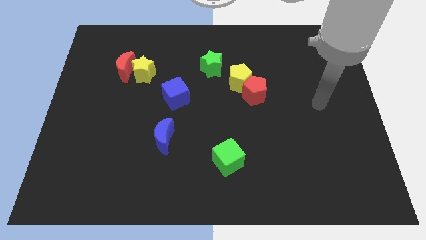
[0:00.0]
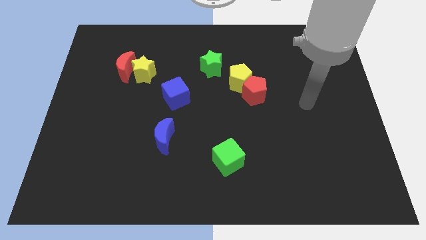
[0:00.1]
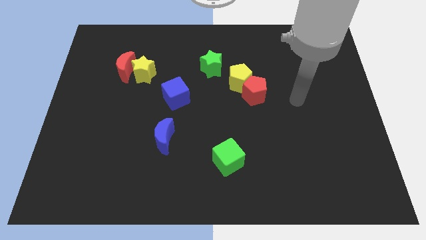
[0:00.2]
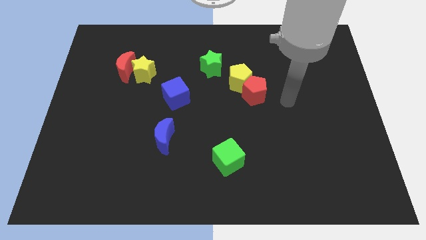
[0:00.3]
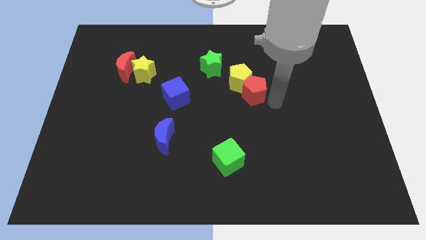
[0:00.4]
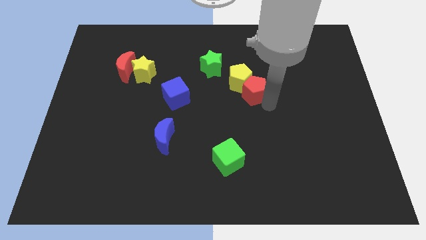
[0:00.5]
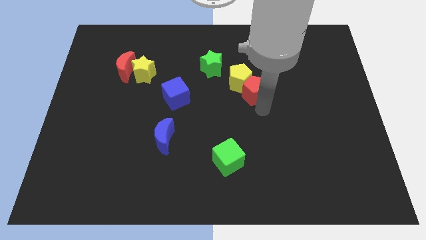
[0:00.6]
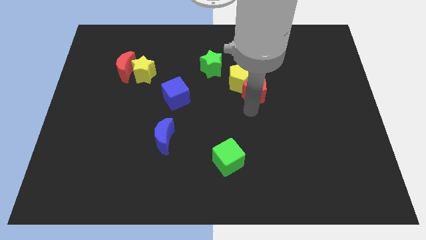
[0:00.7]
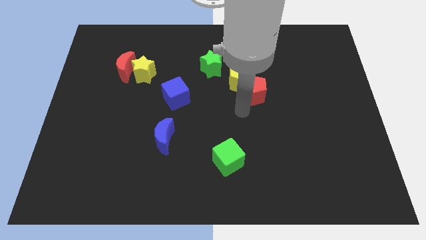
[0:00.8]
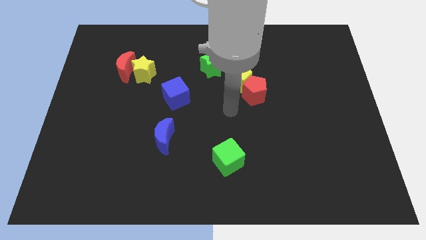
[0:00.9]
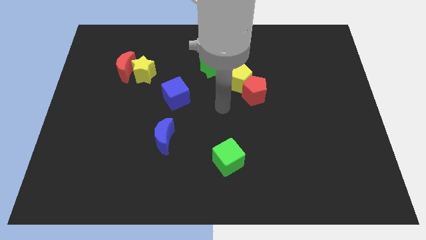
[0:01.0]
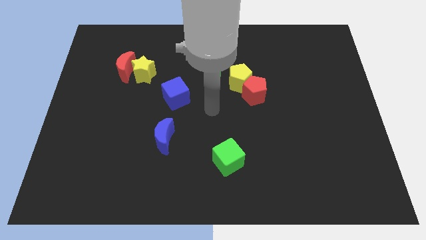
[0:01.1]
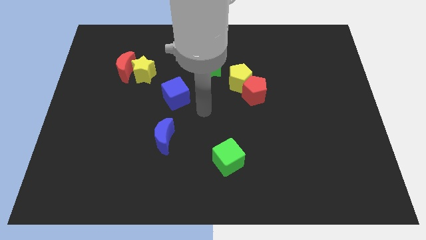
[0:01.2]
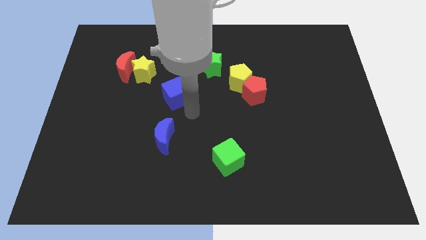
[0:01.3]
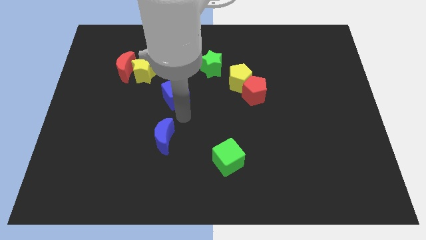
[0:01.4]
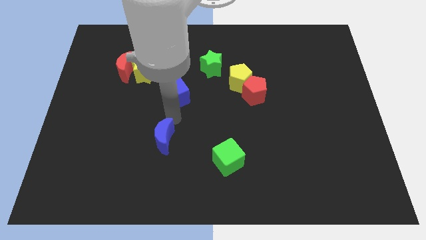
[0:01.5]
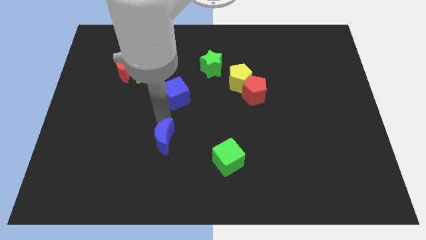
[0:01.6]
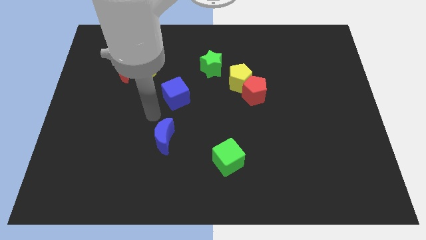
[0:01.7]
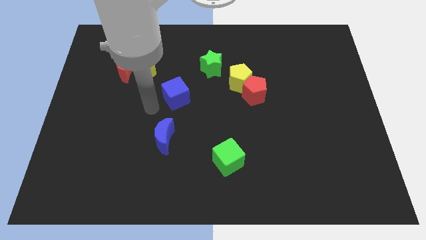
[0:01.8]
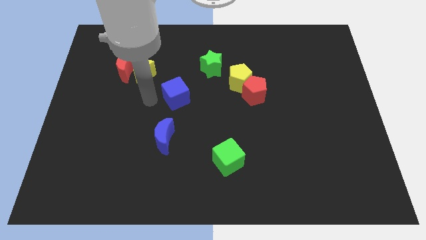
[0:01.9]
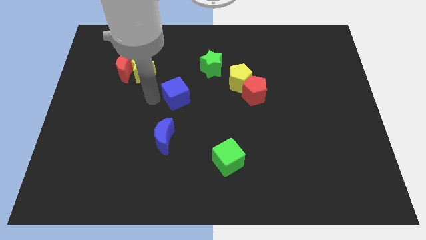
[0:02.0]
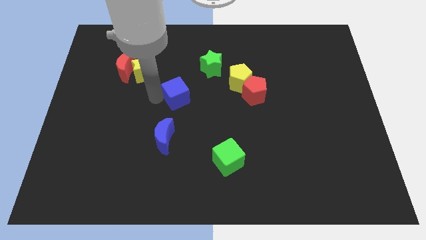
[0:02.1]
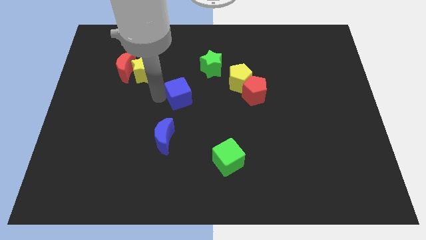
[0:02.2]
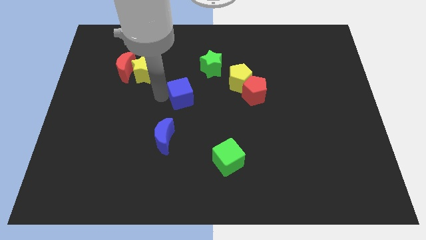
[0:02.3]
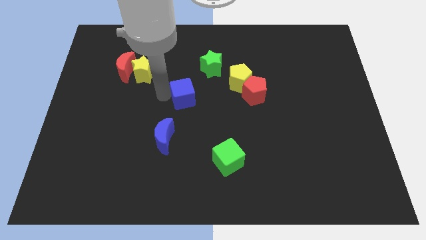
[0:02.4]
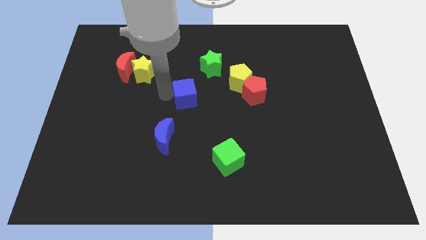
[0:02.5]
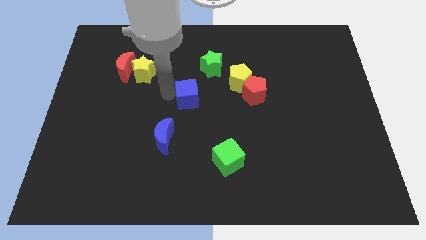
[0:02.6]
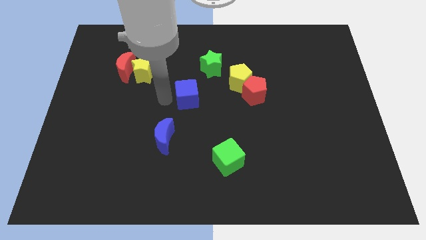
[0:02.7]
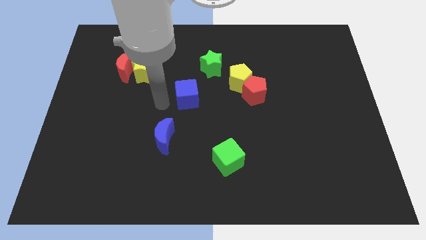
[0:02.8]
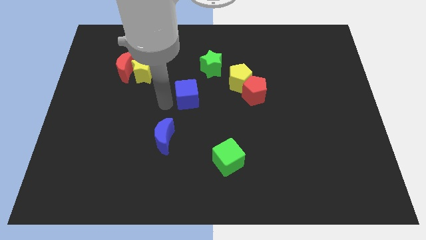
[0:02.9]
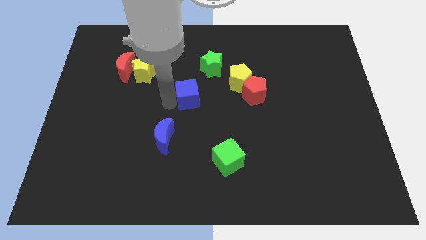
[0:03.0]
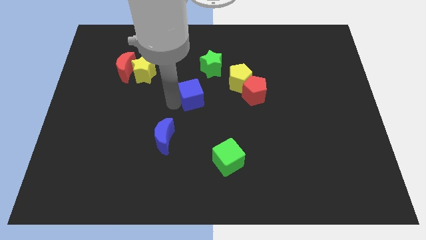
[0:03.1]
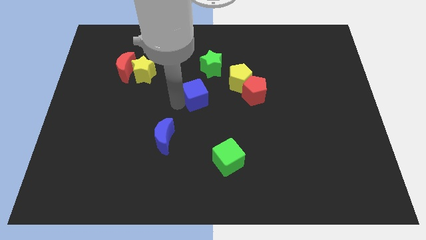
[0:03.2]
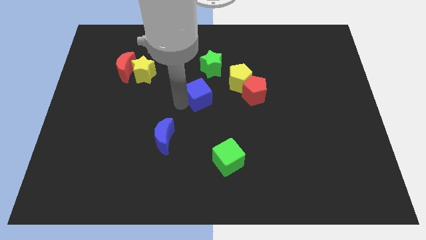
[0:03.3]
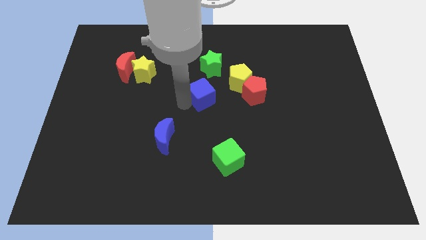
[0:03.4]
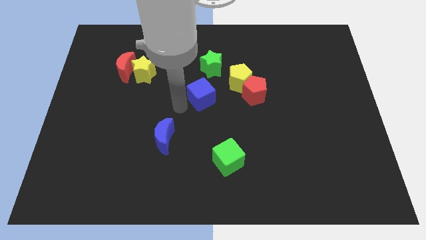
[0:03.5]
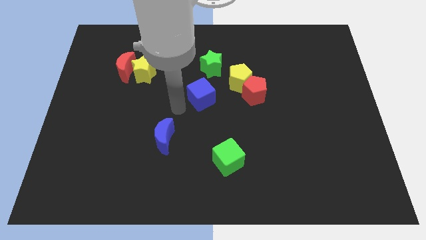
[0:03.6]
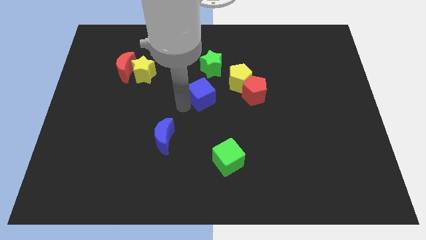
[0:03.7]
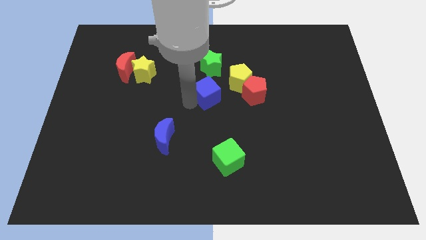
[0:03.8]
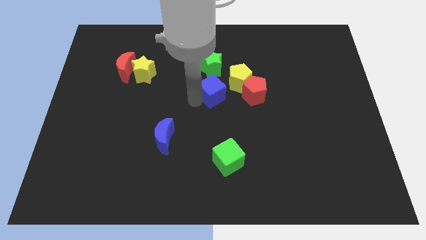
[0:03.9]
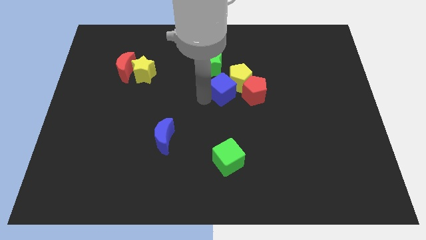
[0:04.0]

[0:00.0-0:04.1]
push the blue cube a bit up and right diagonally

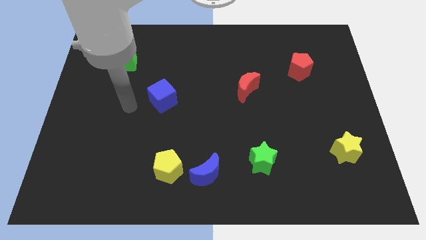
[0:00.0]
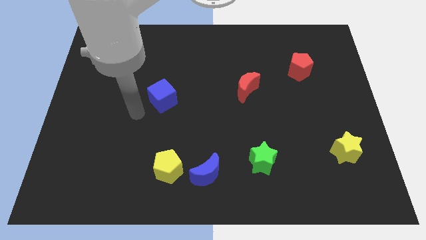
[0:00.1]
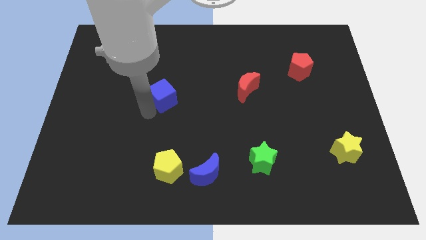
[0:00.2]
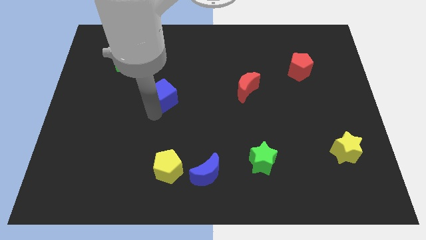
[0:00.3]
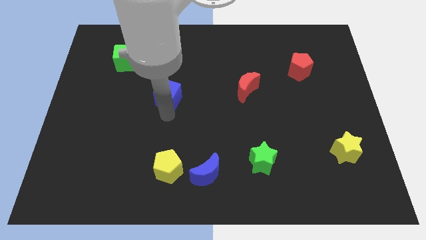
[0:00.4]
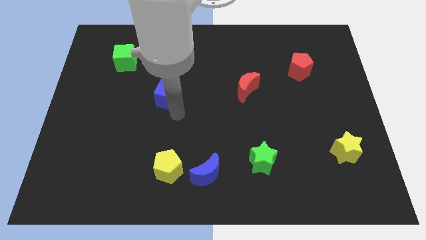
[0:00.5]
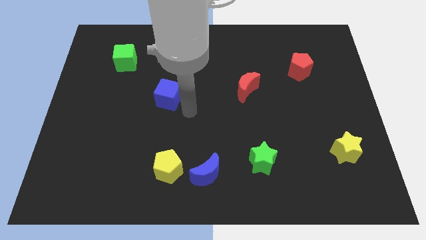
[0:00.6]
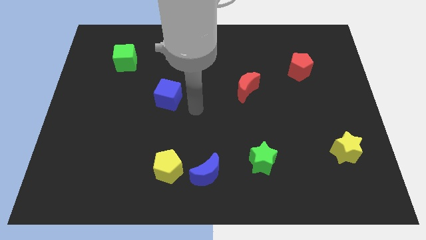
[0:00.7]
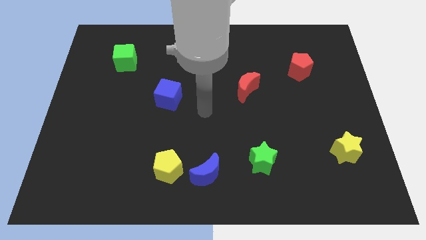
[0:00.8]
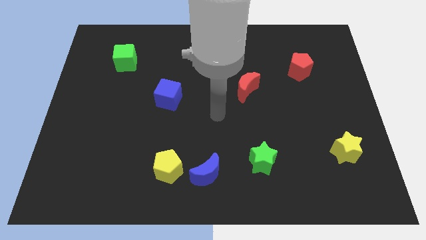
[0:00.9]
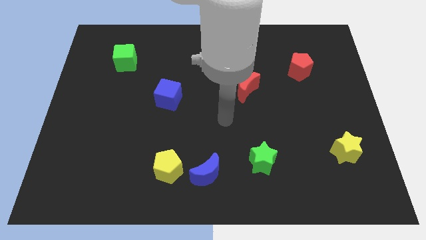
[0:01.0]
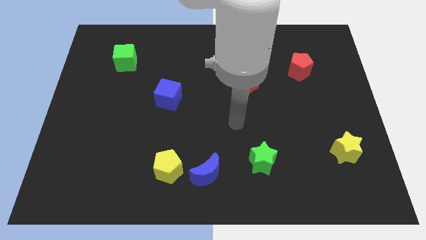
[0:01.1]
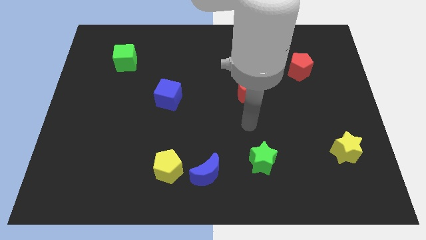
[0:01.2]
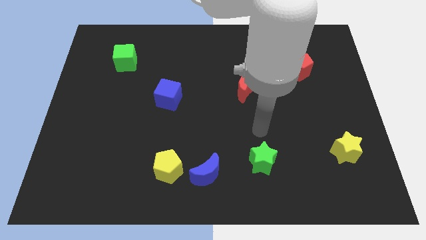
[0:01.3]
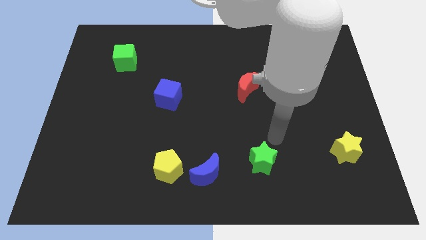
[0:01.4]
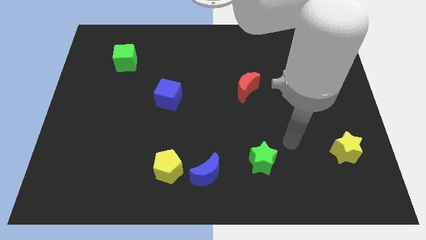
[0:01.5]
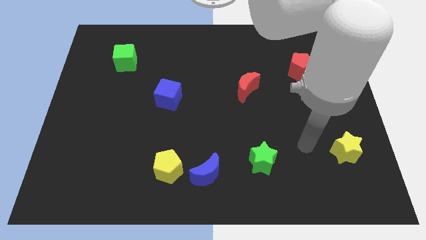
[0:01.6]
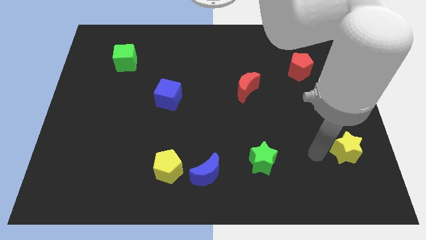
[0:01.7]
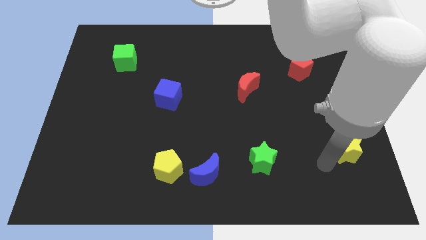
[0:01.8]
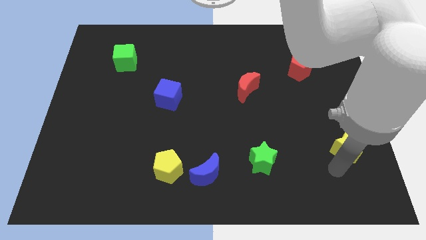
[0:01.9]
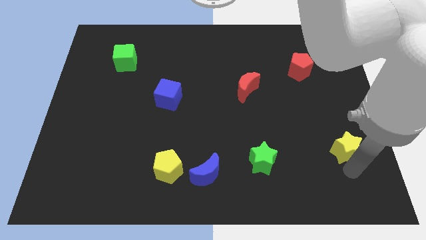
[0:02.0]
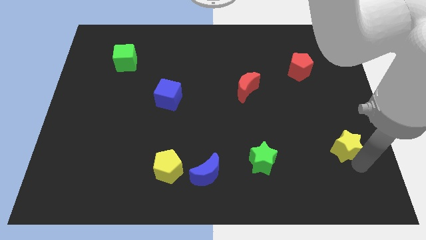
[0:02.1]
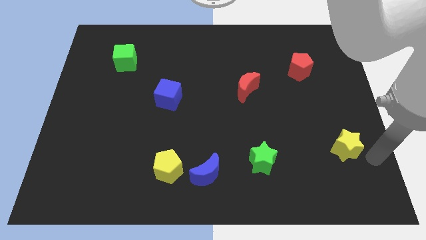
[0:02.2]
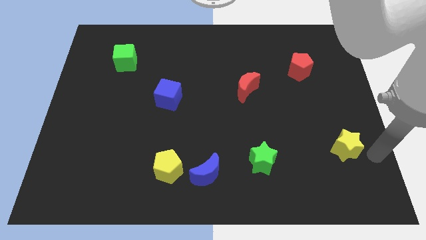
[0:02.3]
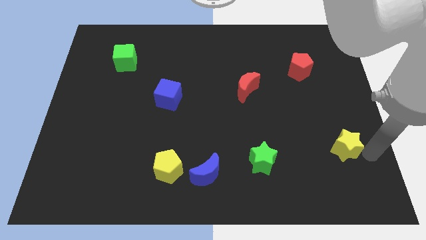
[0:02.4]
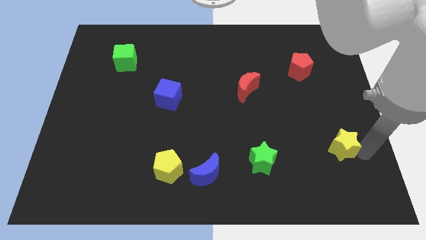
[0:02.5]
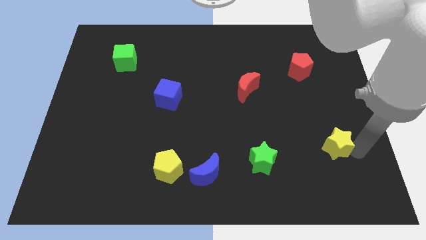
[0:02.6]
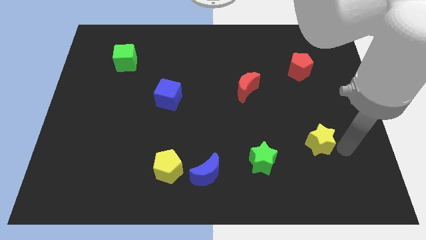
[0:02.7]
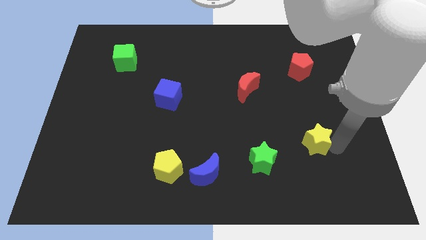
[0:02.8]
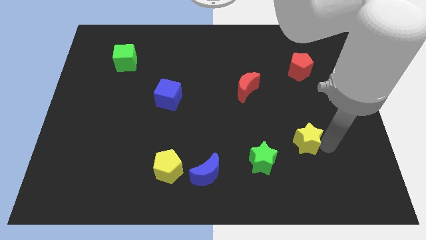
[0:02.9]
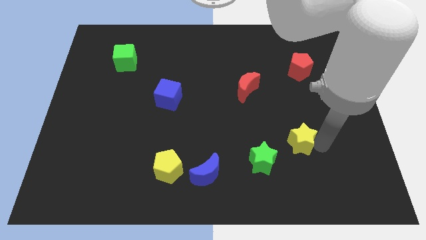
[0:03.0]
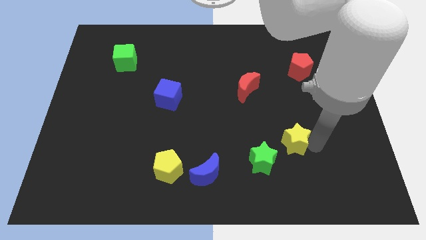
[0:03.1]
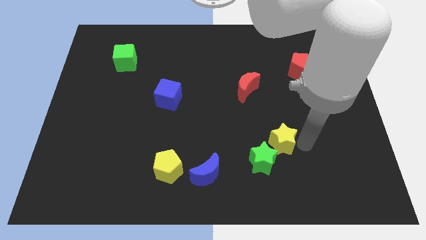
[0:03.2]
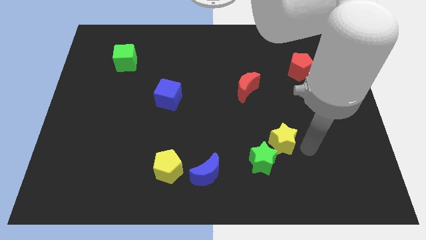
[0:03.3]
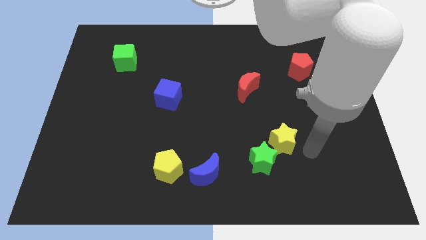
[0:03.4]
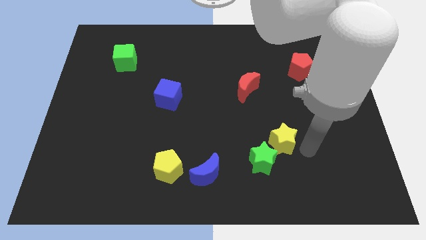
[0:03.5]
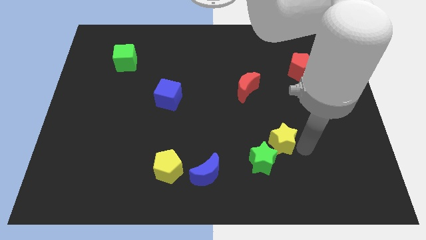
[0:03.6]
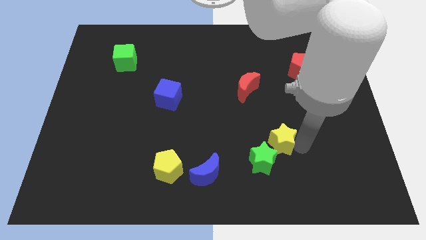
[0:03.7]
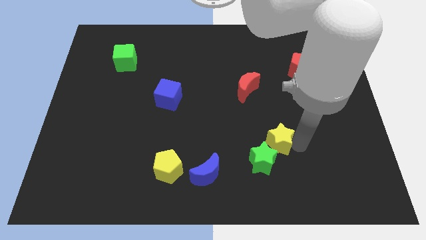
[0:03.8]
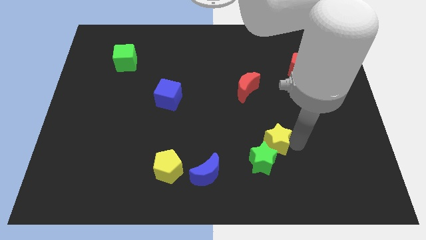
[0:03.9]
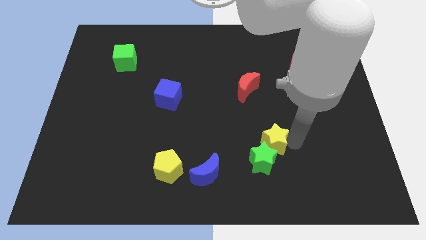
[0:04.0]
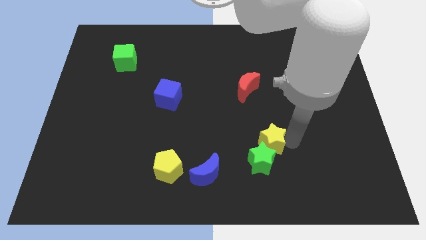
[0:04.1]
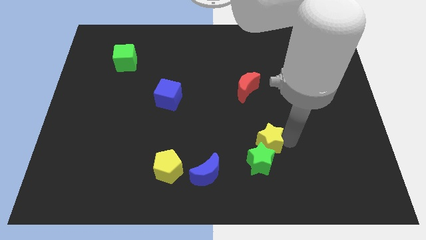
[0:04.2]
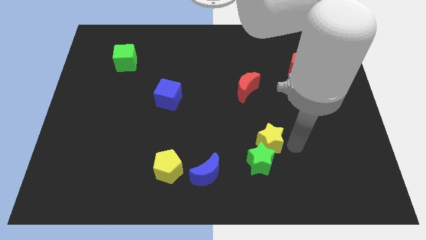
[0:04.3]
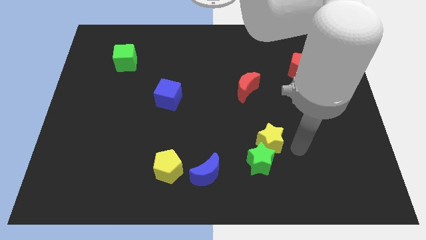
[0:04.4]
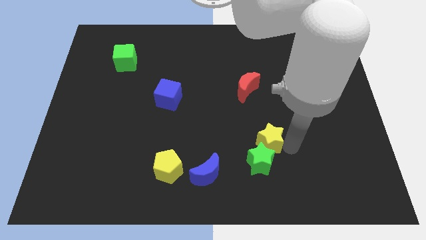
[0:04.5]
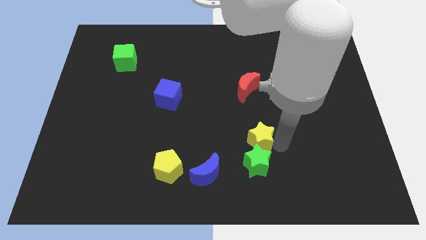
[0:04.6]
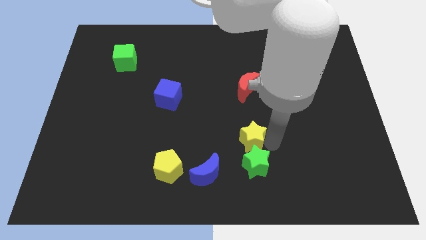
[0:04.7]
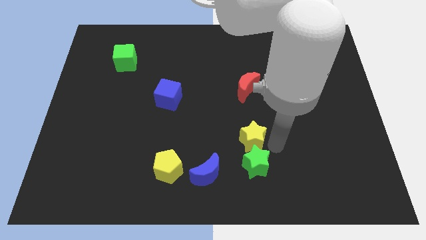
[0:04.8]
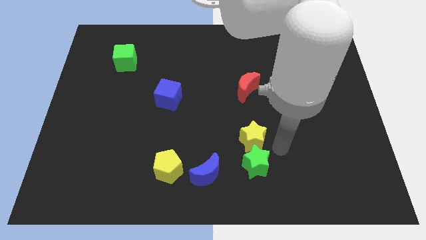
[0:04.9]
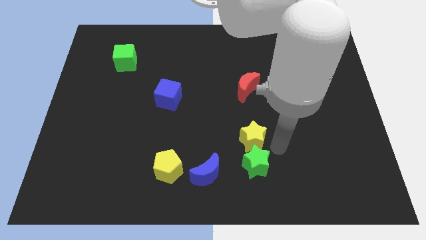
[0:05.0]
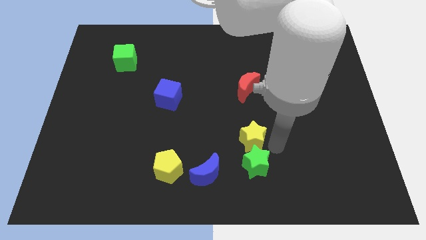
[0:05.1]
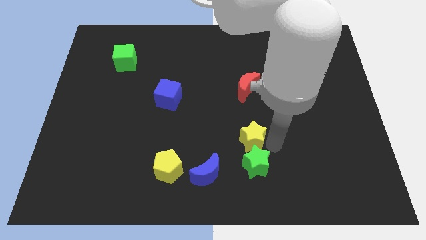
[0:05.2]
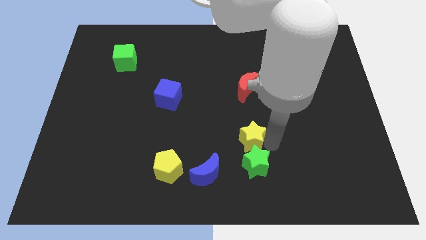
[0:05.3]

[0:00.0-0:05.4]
slide the yellow star left
